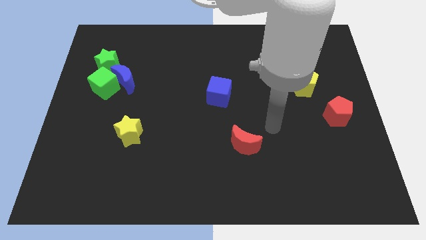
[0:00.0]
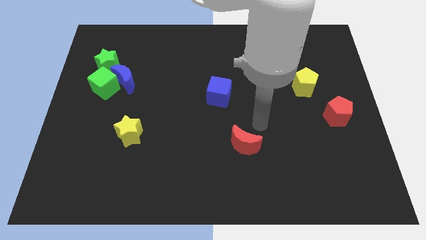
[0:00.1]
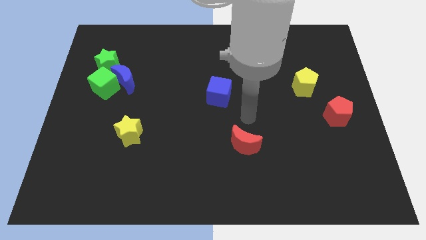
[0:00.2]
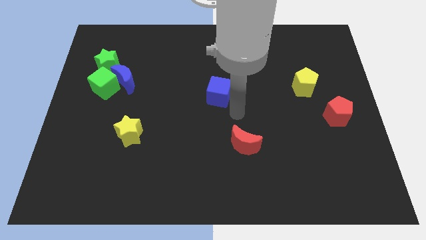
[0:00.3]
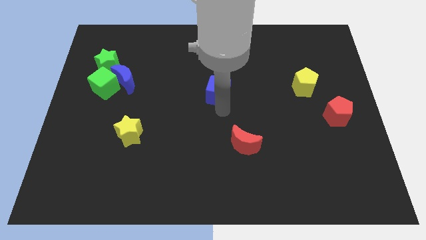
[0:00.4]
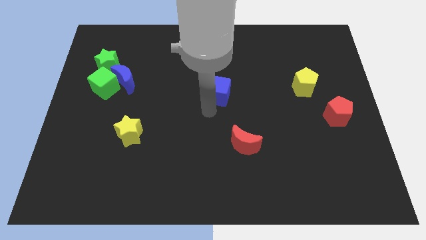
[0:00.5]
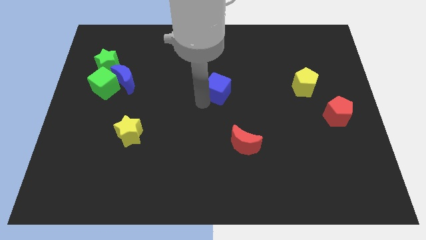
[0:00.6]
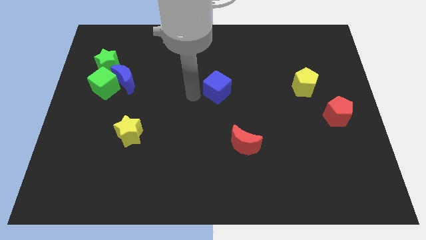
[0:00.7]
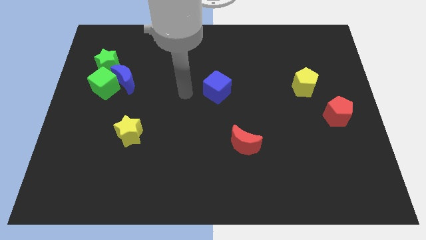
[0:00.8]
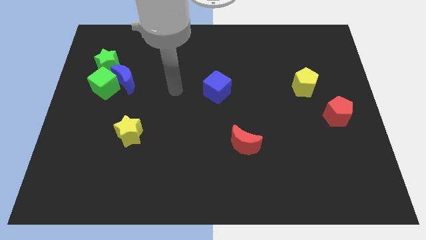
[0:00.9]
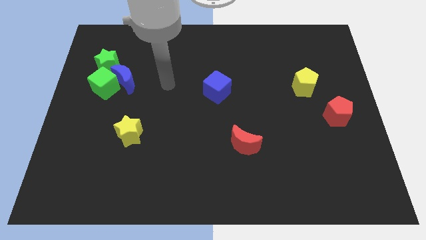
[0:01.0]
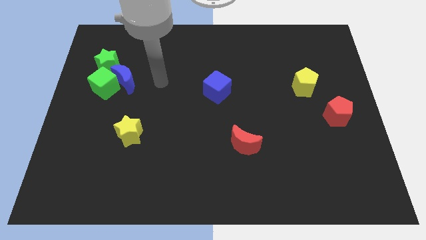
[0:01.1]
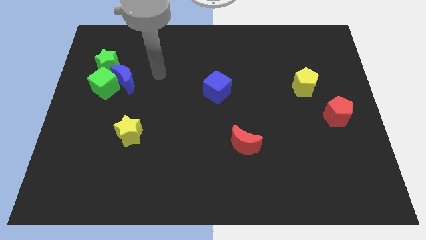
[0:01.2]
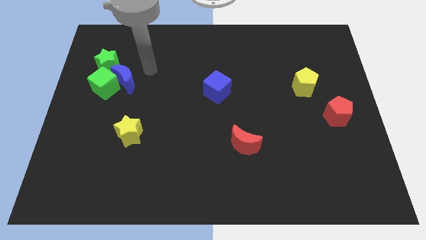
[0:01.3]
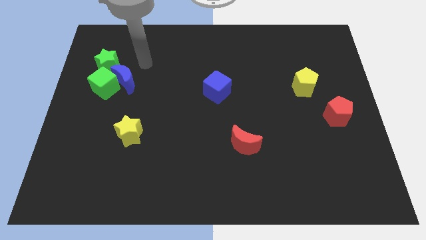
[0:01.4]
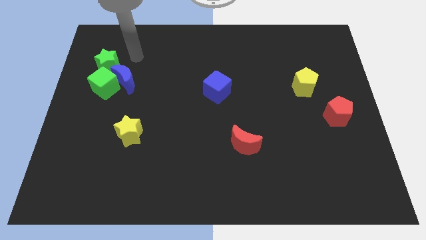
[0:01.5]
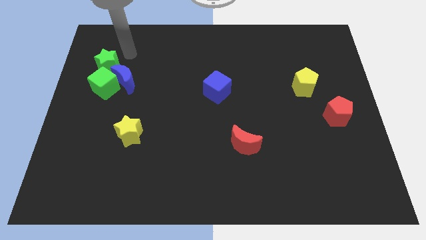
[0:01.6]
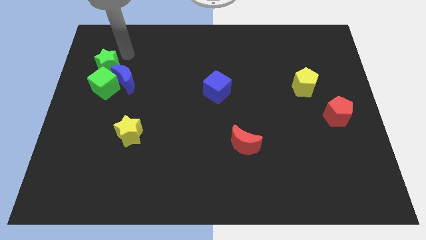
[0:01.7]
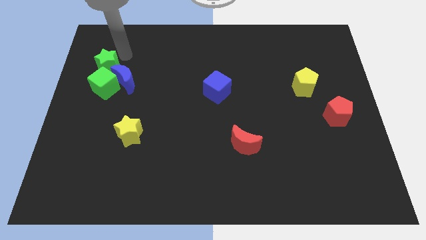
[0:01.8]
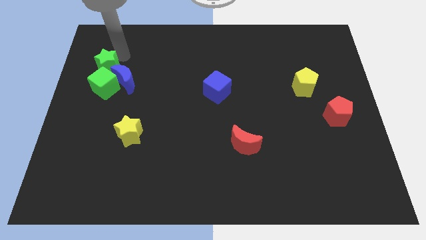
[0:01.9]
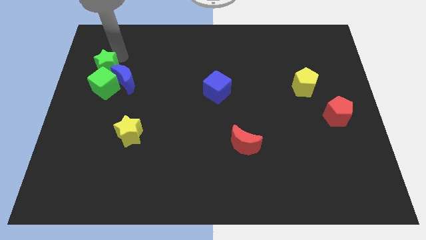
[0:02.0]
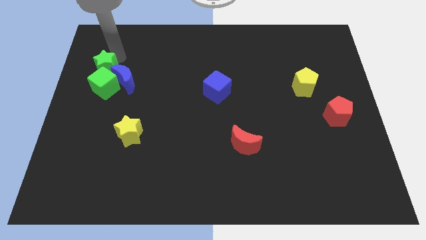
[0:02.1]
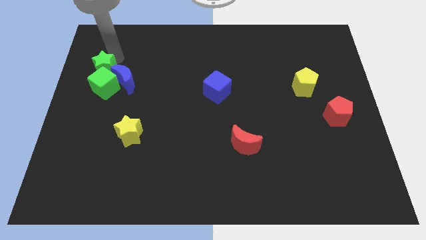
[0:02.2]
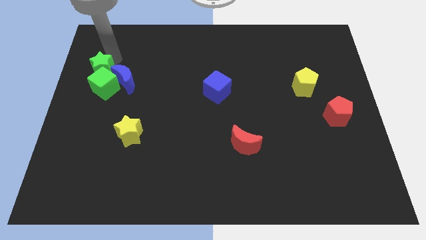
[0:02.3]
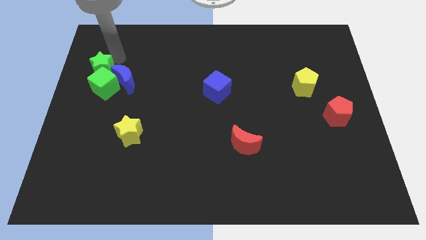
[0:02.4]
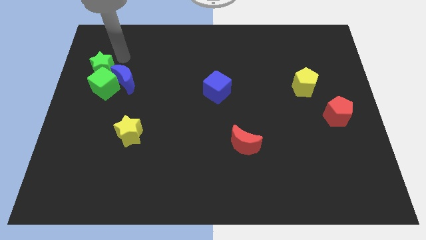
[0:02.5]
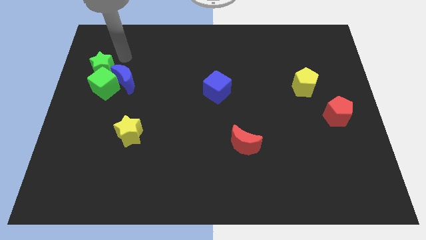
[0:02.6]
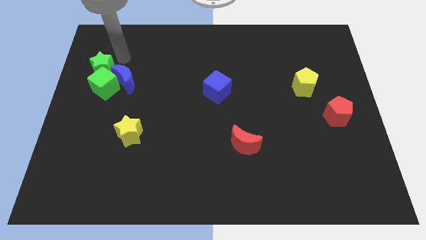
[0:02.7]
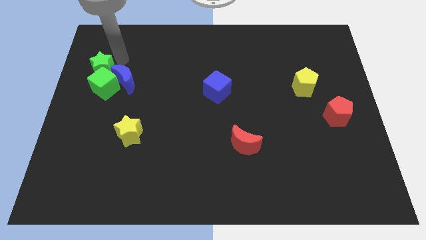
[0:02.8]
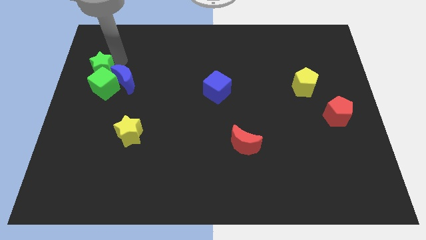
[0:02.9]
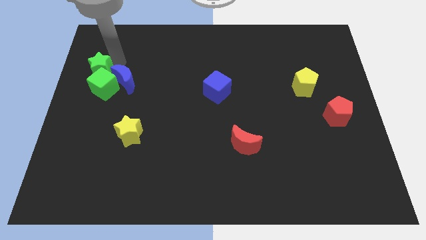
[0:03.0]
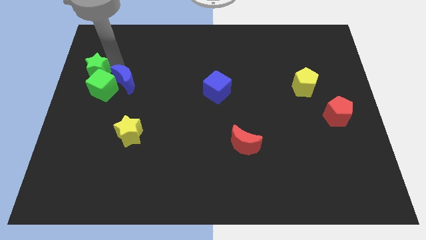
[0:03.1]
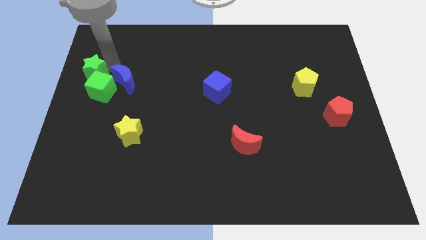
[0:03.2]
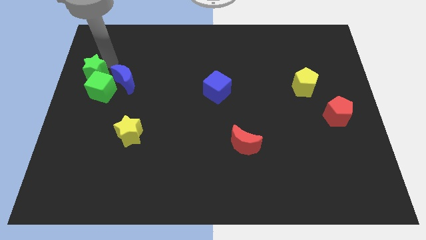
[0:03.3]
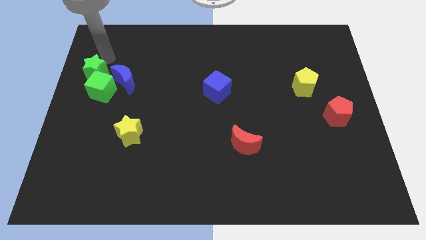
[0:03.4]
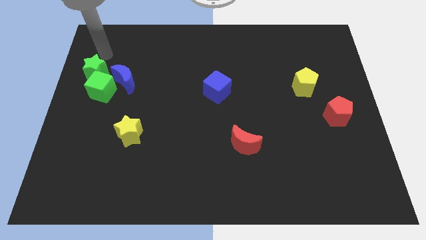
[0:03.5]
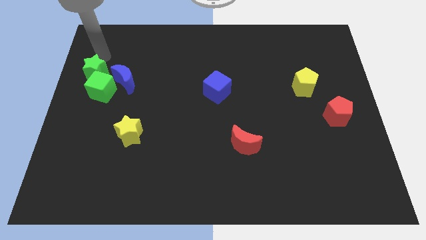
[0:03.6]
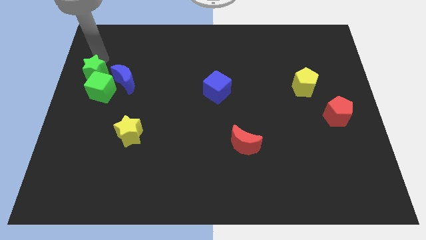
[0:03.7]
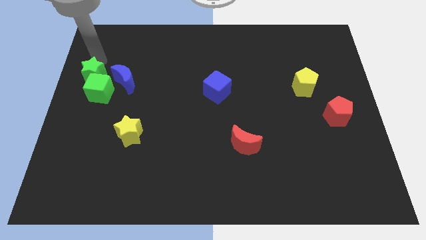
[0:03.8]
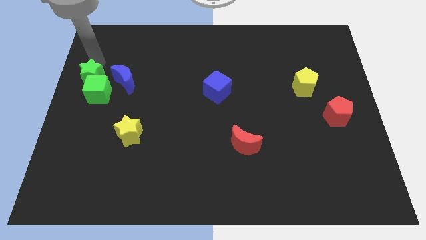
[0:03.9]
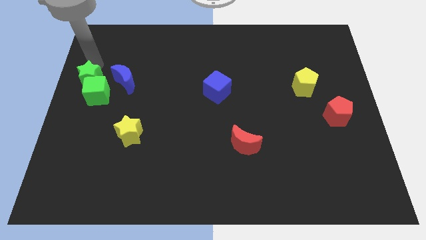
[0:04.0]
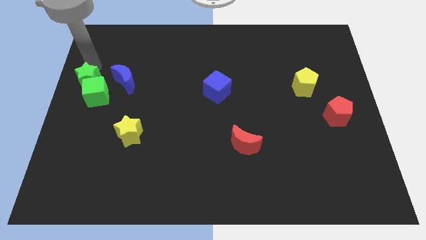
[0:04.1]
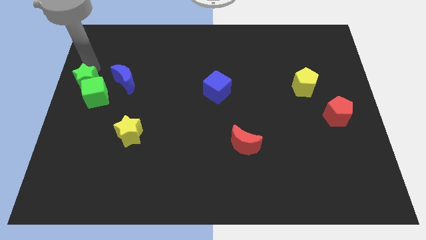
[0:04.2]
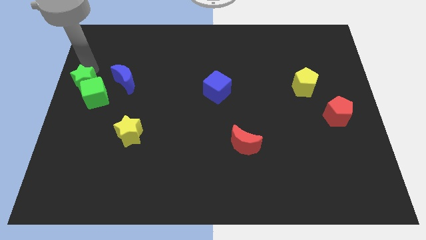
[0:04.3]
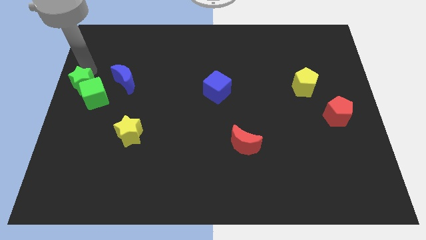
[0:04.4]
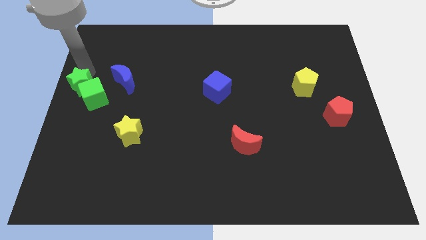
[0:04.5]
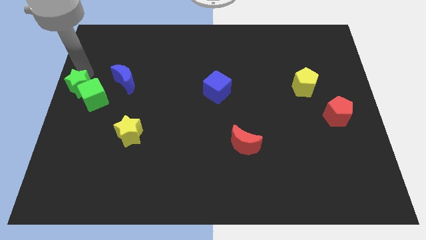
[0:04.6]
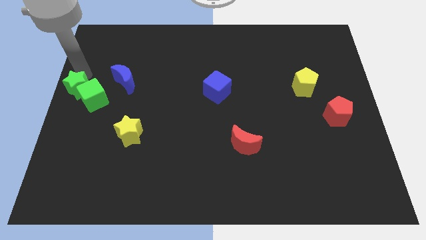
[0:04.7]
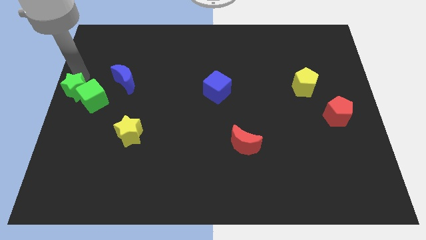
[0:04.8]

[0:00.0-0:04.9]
slightly slide the green star down

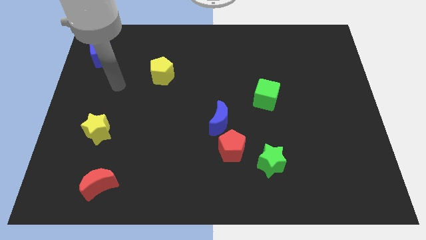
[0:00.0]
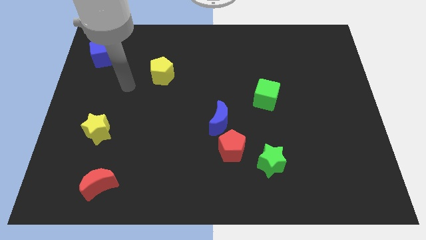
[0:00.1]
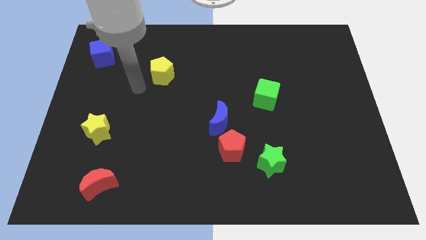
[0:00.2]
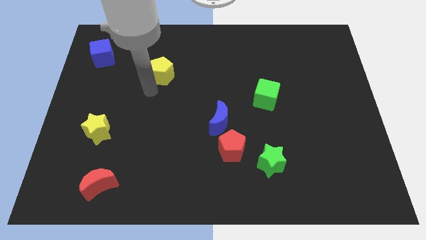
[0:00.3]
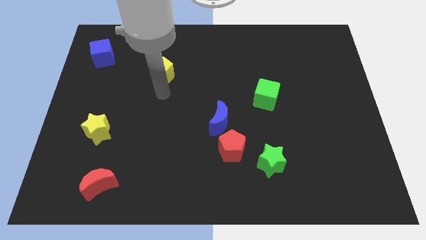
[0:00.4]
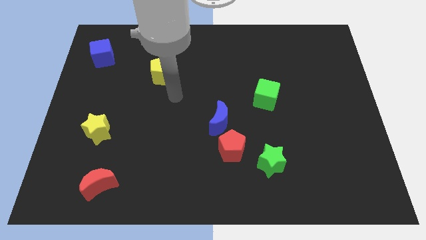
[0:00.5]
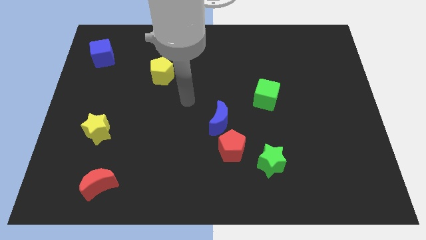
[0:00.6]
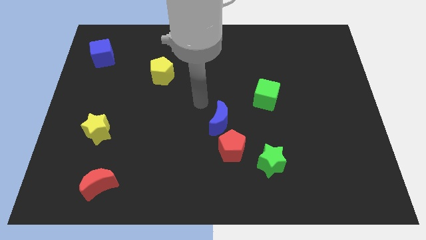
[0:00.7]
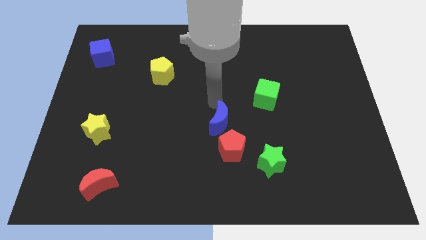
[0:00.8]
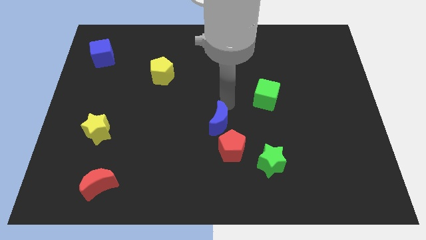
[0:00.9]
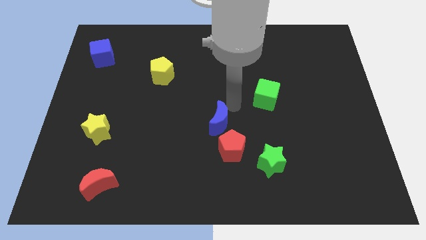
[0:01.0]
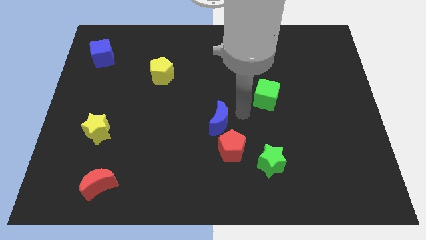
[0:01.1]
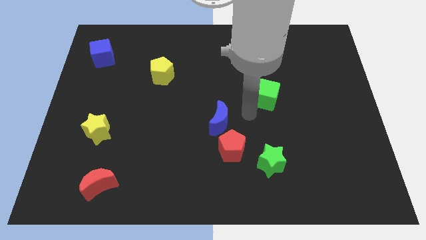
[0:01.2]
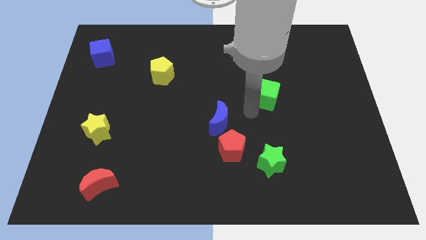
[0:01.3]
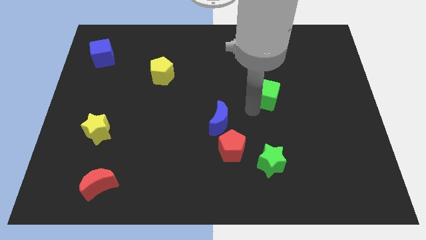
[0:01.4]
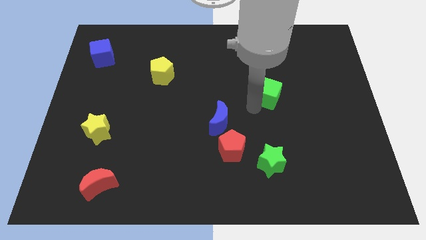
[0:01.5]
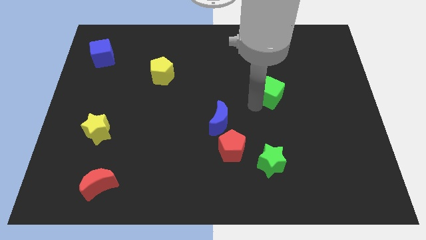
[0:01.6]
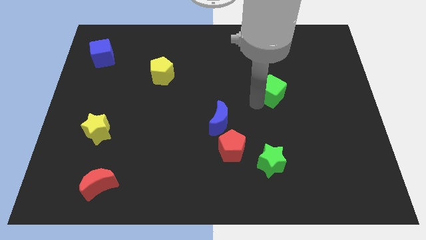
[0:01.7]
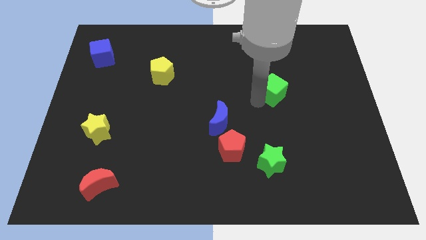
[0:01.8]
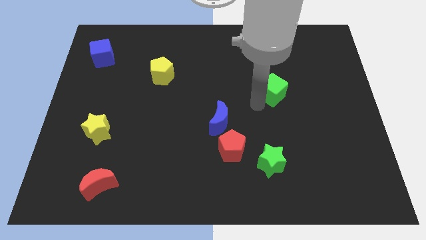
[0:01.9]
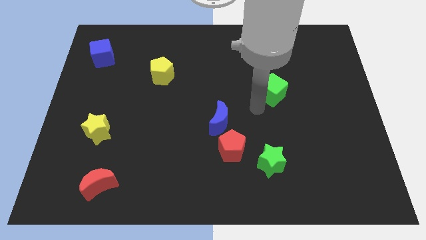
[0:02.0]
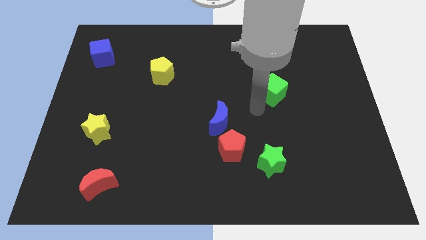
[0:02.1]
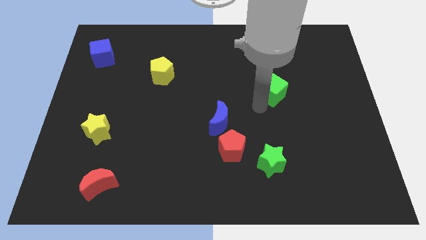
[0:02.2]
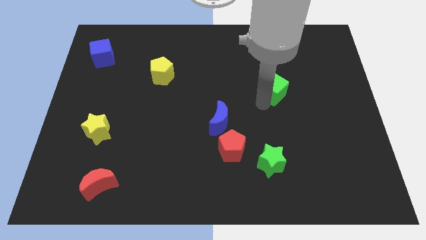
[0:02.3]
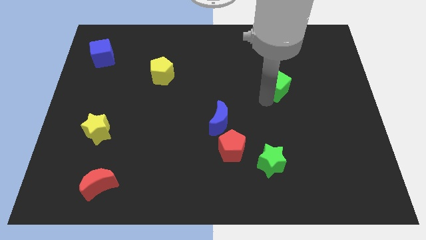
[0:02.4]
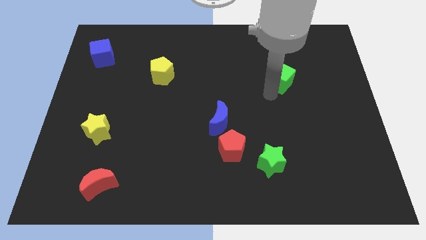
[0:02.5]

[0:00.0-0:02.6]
slightly push the green cube upwards and to the right

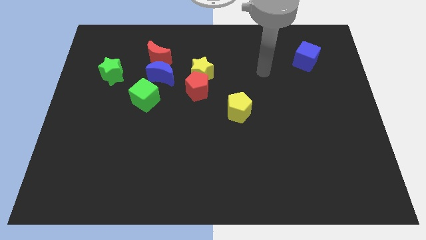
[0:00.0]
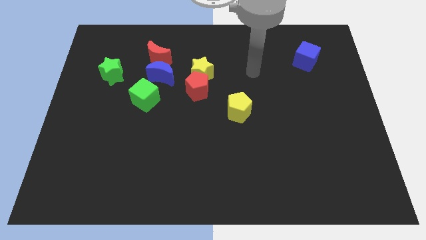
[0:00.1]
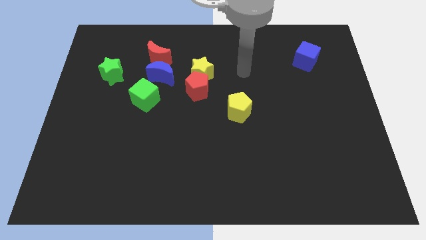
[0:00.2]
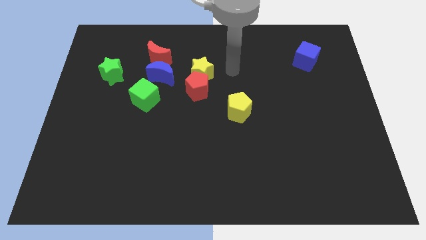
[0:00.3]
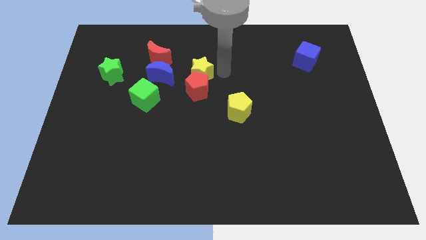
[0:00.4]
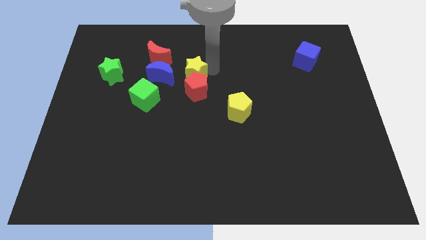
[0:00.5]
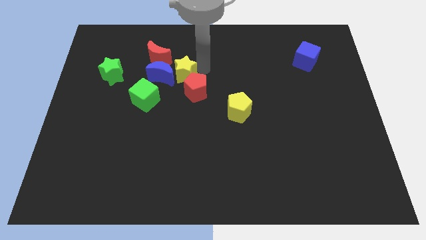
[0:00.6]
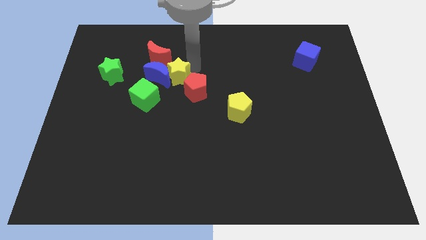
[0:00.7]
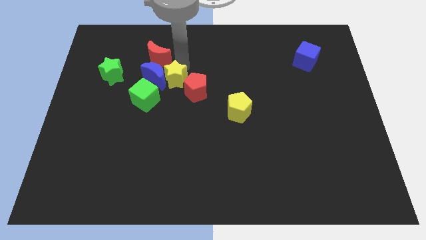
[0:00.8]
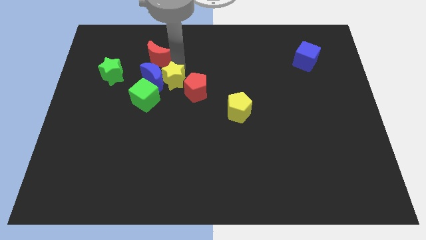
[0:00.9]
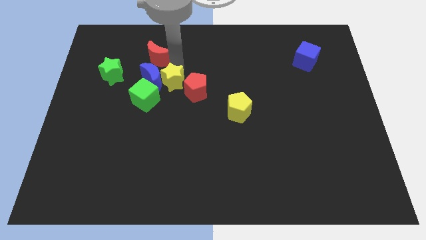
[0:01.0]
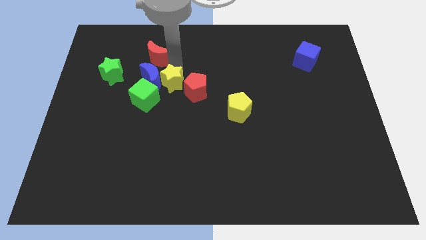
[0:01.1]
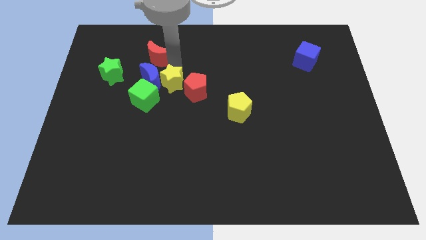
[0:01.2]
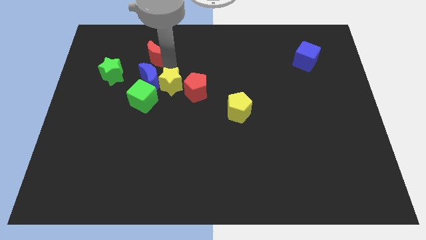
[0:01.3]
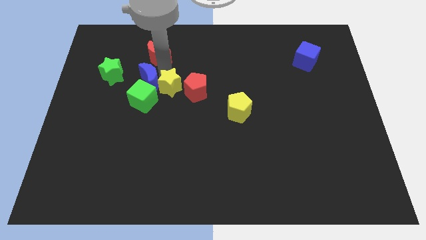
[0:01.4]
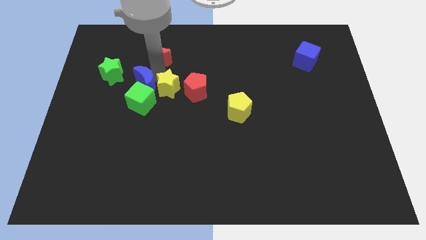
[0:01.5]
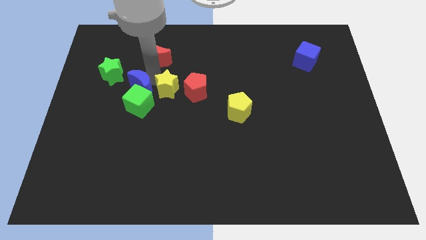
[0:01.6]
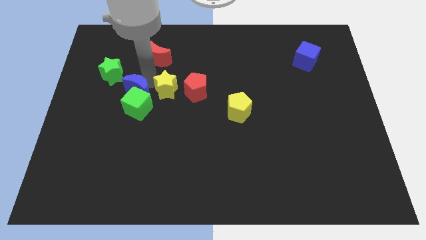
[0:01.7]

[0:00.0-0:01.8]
slide the blue moon a little bit down and to the left
